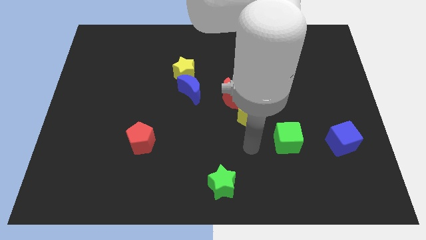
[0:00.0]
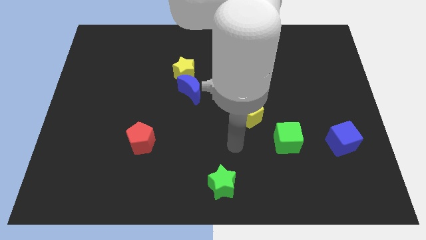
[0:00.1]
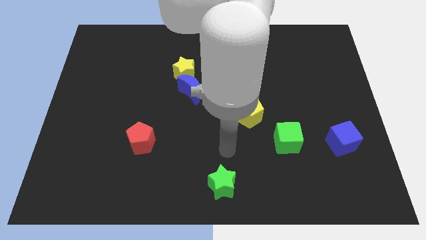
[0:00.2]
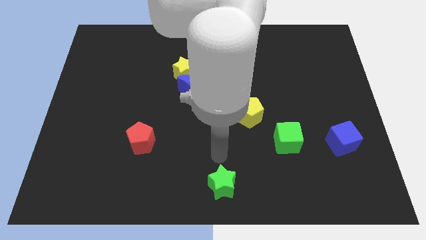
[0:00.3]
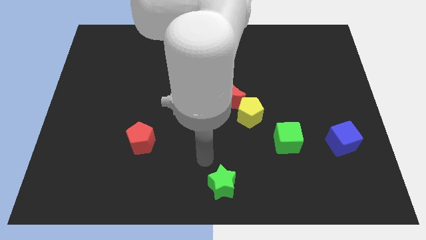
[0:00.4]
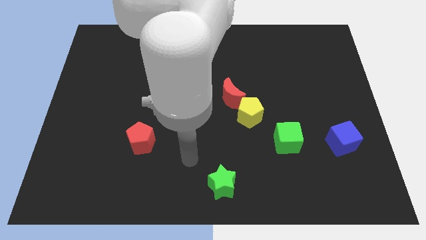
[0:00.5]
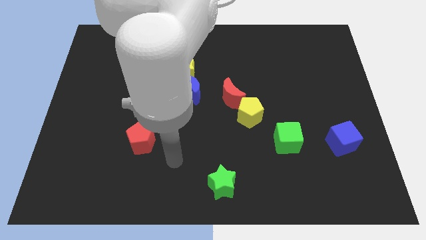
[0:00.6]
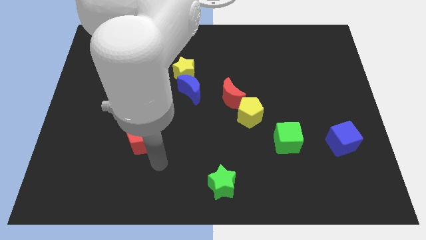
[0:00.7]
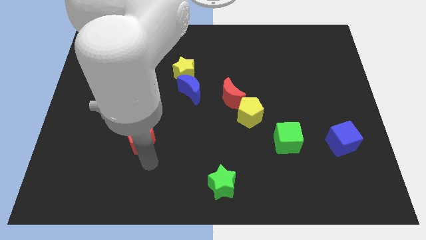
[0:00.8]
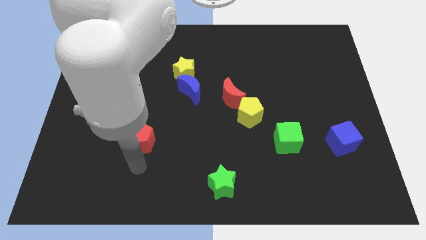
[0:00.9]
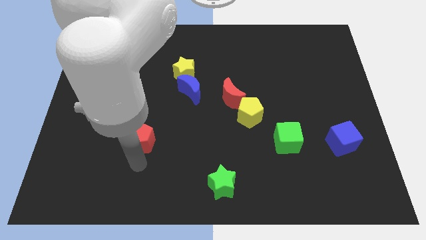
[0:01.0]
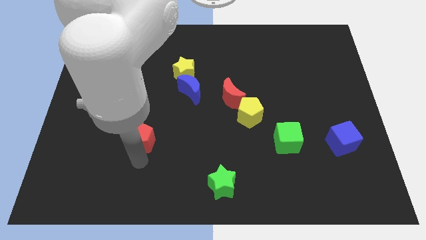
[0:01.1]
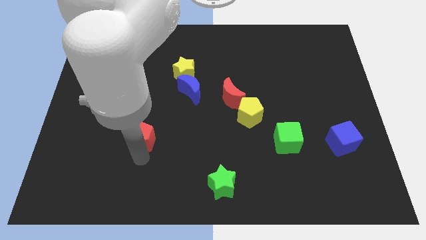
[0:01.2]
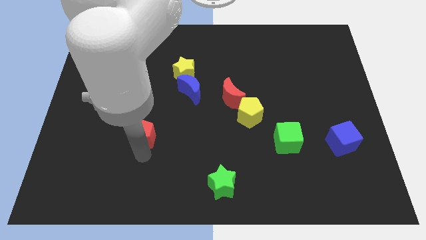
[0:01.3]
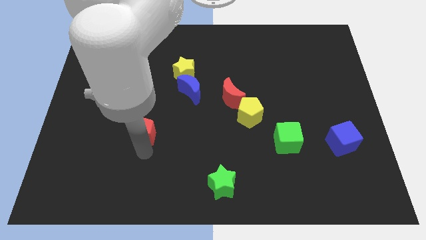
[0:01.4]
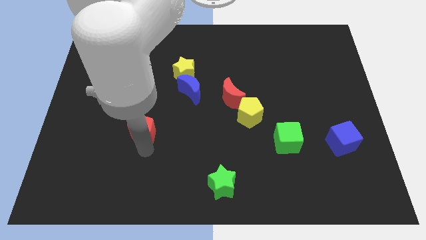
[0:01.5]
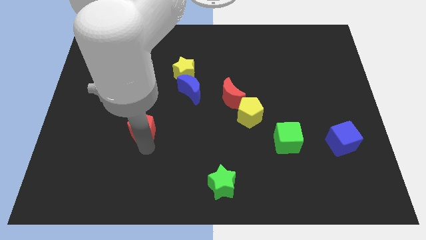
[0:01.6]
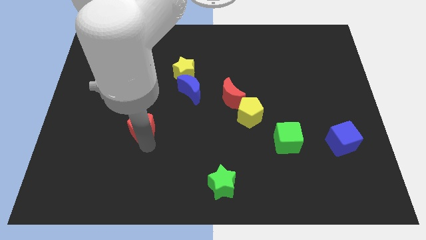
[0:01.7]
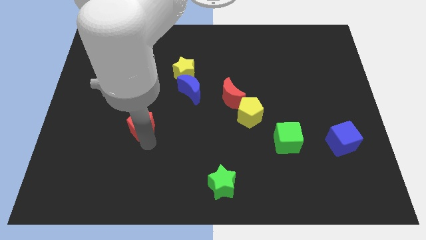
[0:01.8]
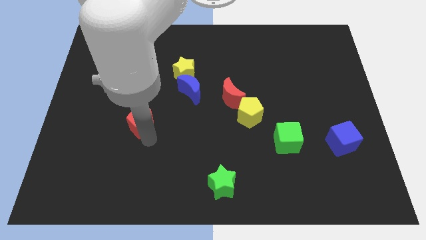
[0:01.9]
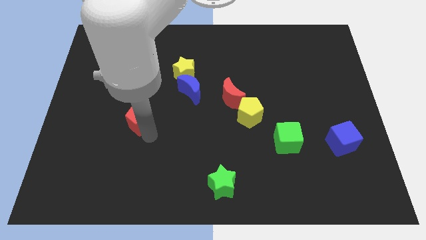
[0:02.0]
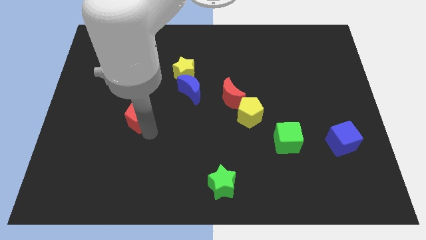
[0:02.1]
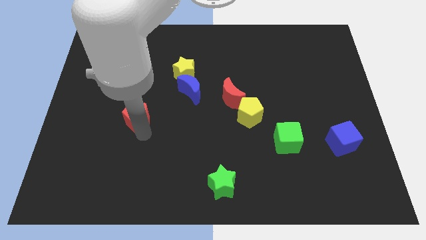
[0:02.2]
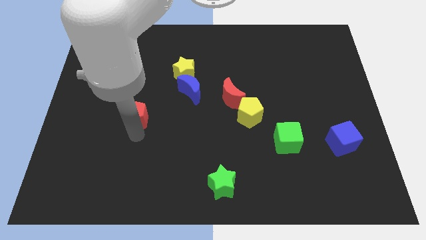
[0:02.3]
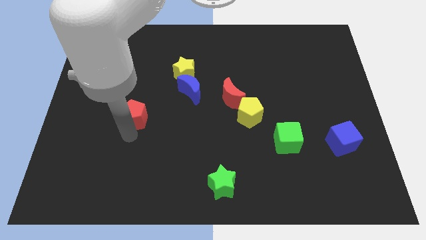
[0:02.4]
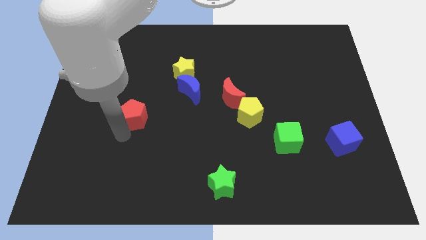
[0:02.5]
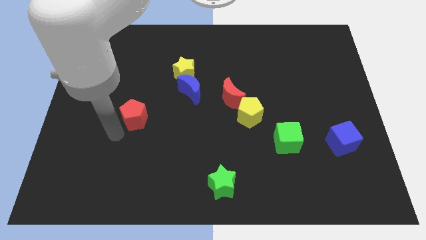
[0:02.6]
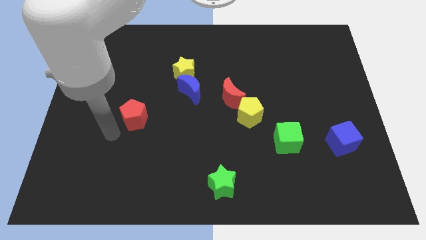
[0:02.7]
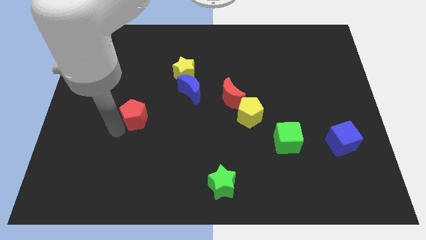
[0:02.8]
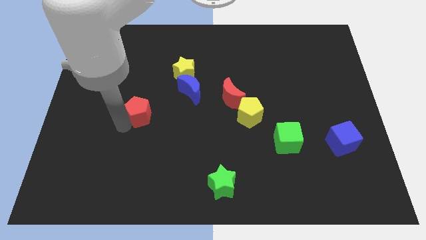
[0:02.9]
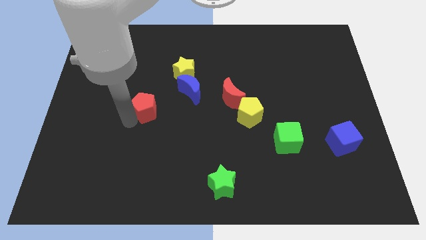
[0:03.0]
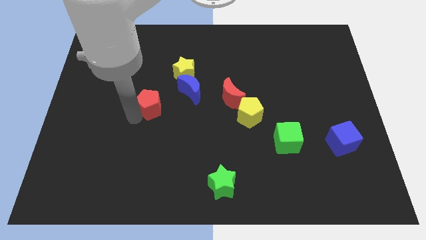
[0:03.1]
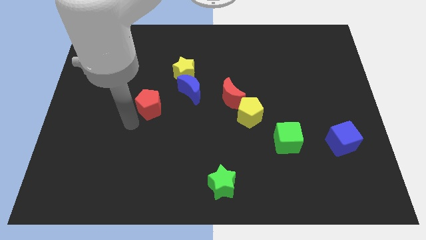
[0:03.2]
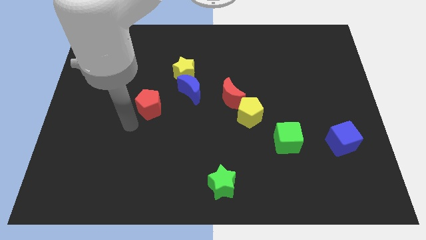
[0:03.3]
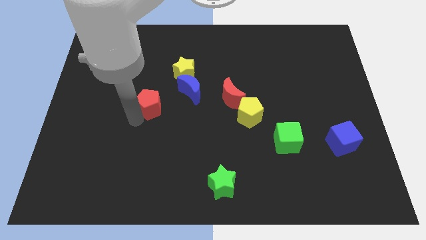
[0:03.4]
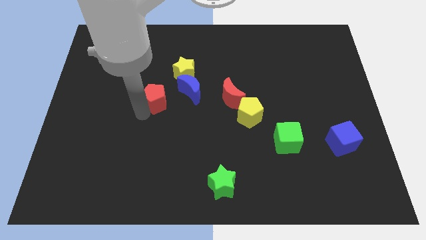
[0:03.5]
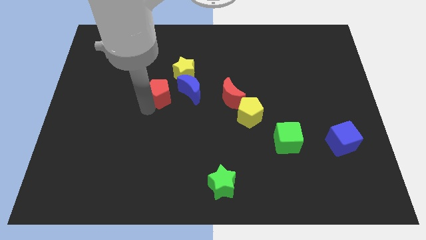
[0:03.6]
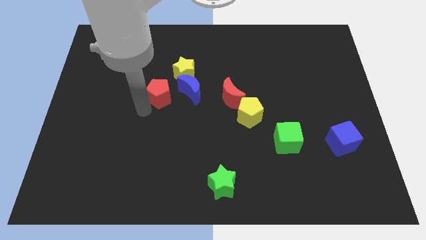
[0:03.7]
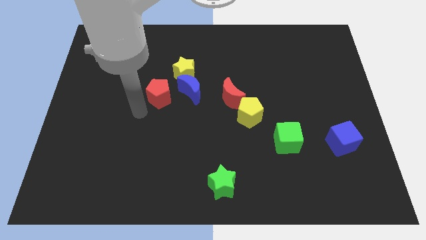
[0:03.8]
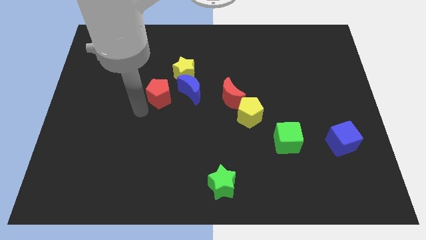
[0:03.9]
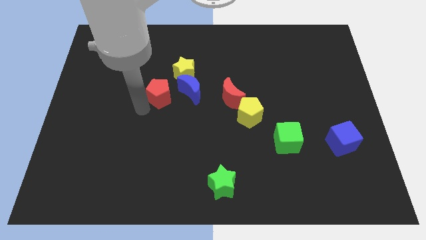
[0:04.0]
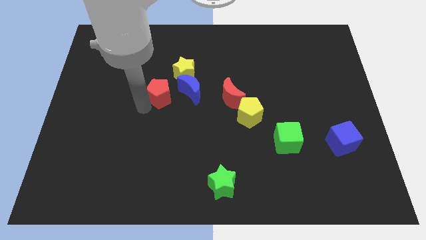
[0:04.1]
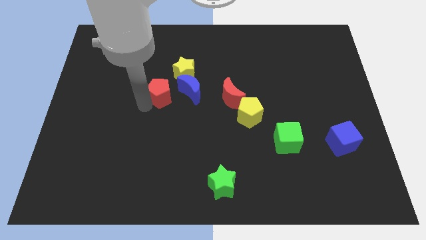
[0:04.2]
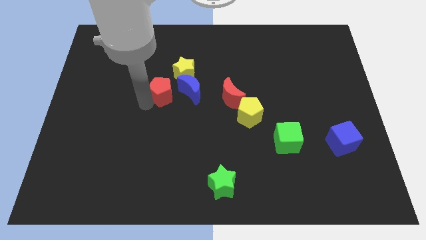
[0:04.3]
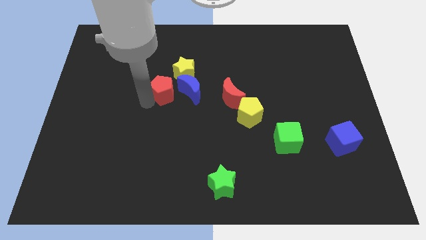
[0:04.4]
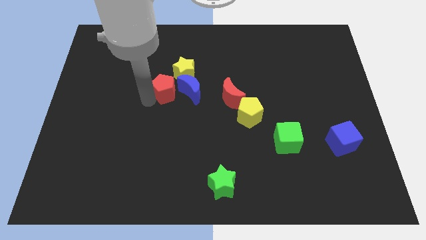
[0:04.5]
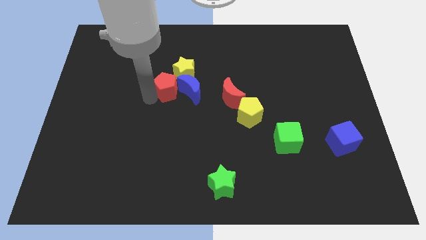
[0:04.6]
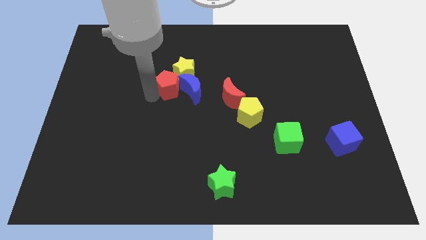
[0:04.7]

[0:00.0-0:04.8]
push the red pentagon towards the yellow star

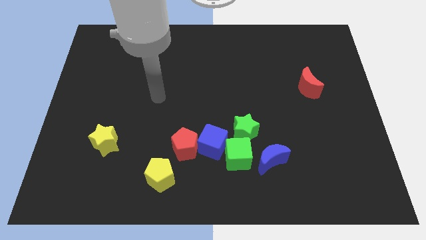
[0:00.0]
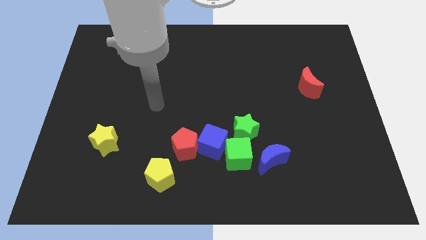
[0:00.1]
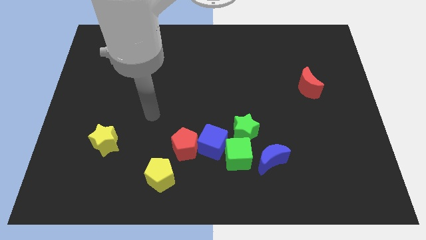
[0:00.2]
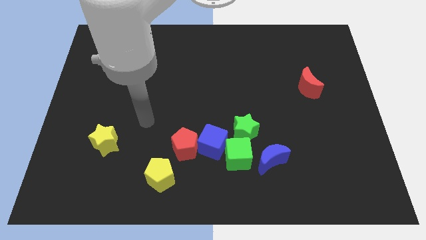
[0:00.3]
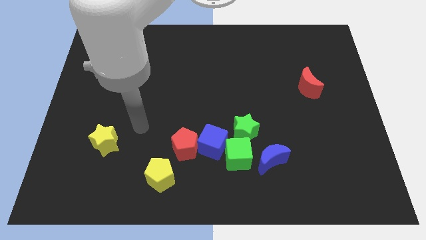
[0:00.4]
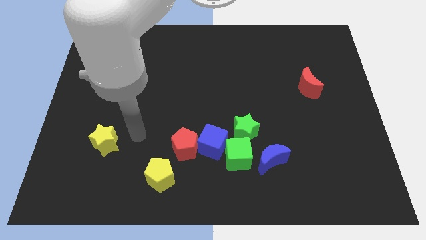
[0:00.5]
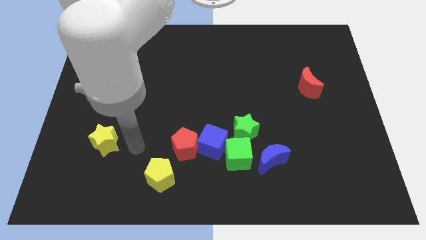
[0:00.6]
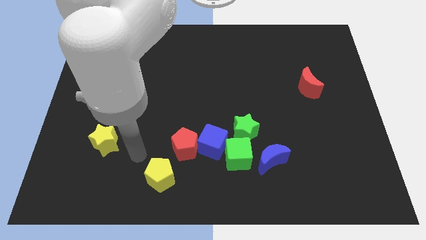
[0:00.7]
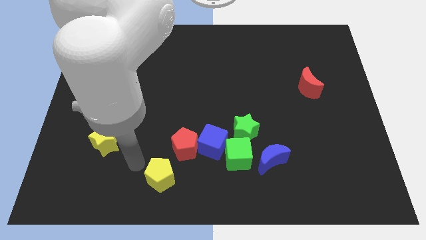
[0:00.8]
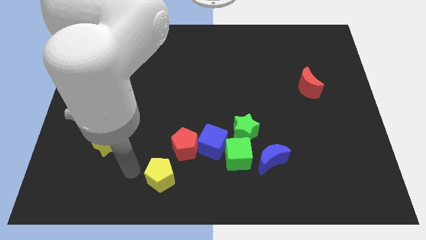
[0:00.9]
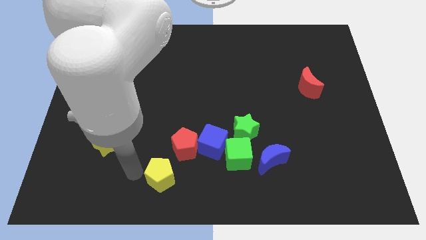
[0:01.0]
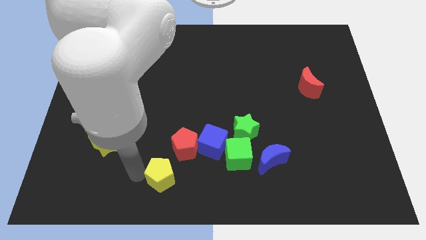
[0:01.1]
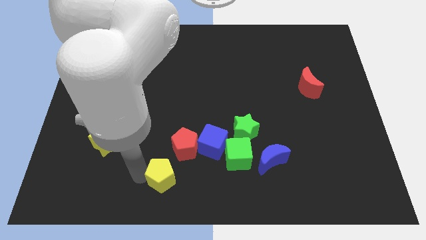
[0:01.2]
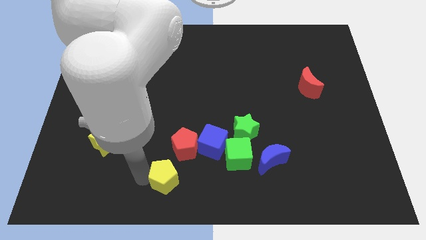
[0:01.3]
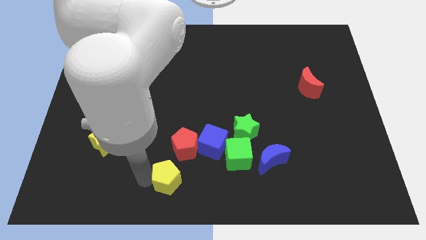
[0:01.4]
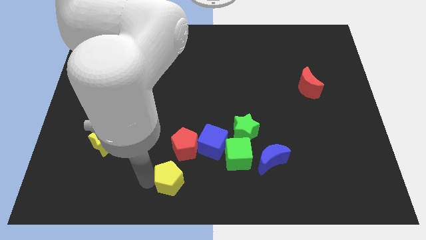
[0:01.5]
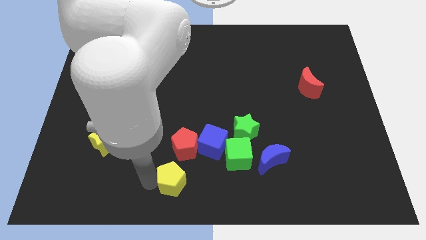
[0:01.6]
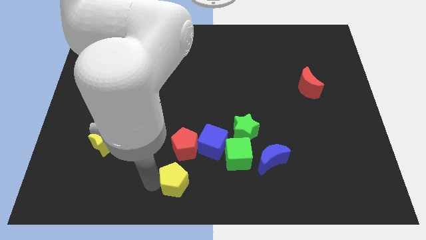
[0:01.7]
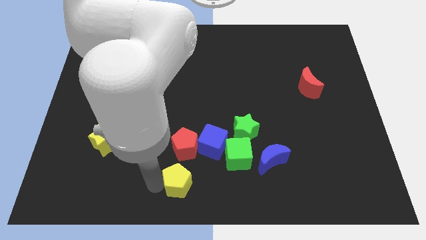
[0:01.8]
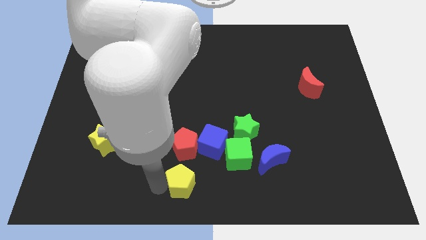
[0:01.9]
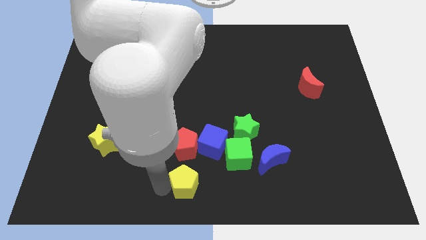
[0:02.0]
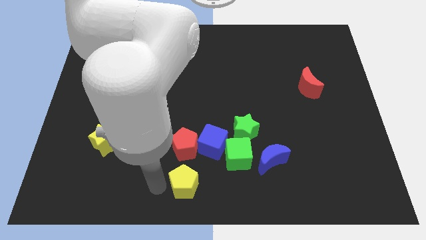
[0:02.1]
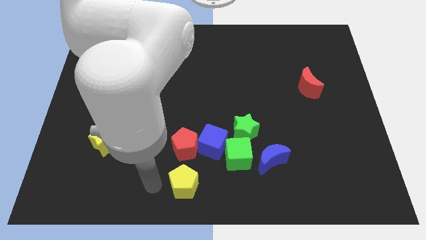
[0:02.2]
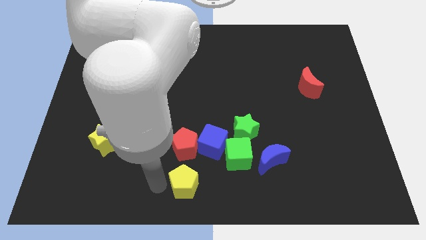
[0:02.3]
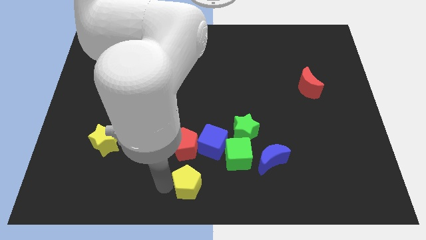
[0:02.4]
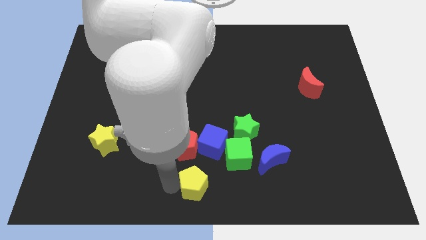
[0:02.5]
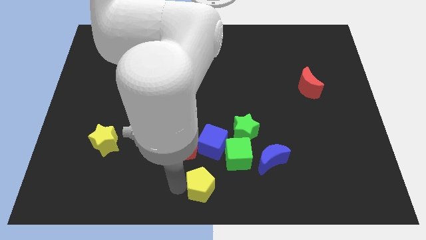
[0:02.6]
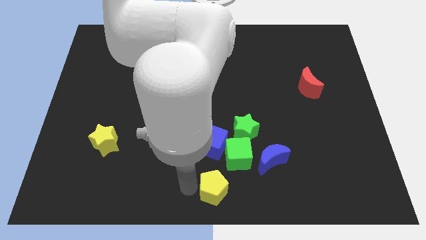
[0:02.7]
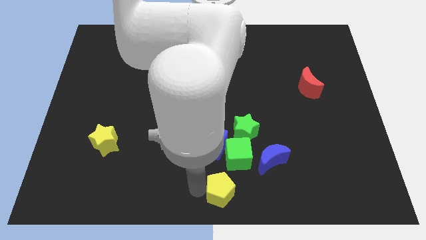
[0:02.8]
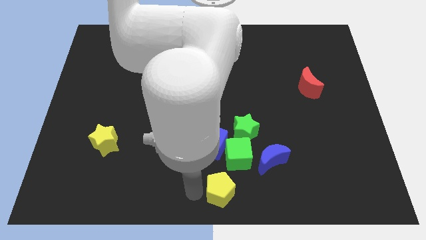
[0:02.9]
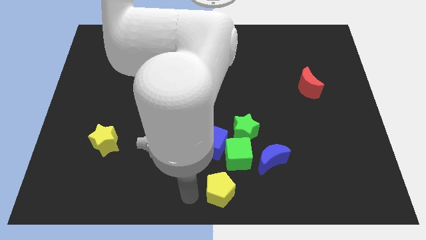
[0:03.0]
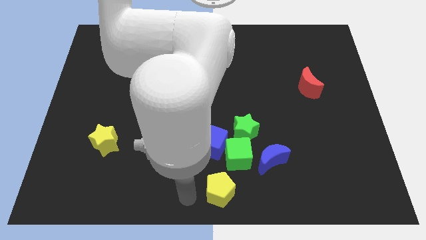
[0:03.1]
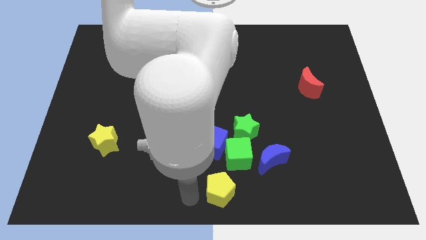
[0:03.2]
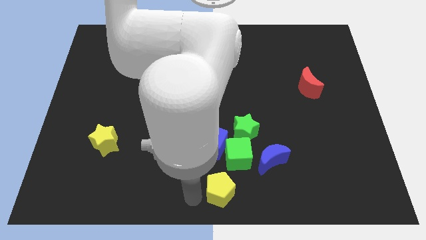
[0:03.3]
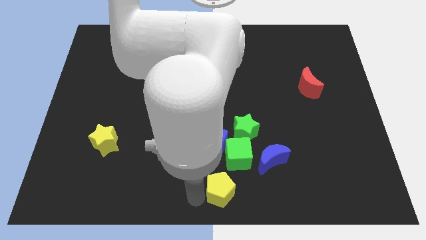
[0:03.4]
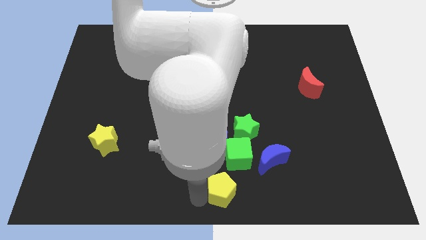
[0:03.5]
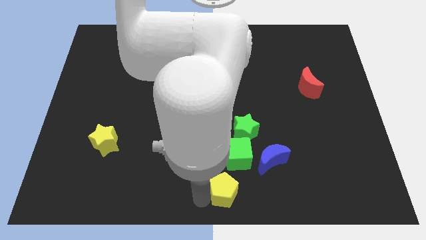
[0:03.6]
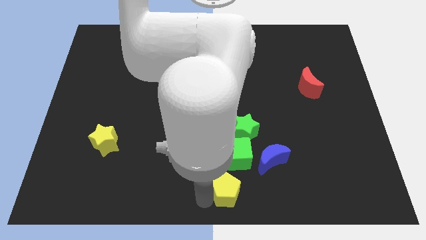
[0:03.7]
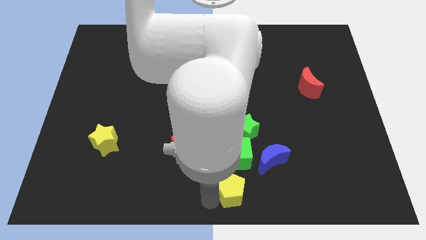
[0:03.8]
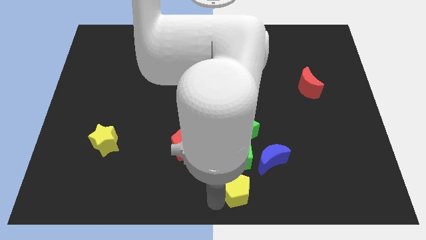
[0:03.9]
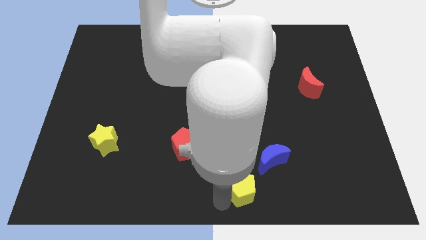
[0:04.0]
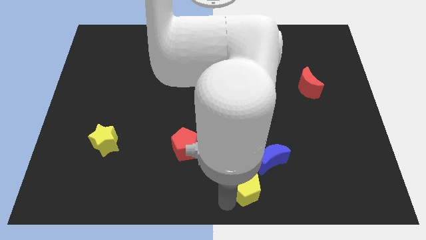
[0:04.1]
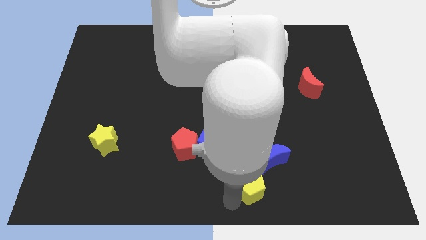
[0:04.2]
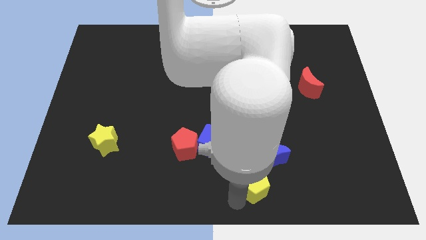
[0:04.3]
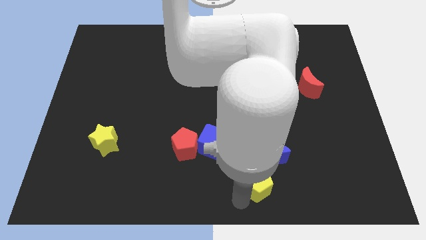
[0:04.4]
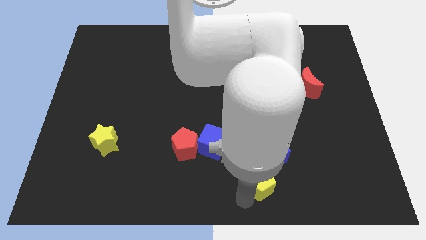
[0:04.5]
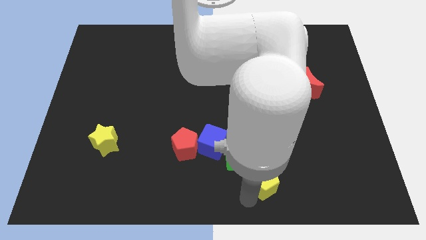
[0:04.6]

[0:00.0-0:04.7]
push the yellow pentagon close to the blue moon
